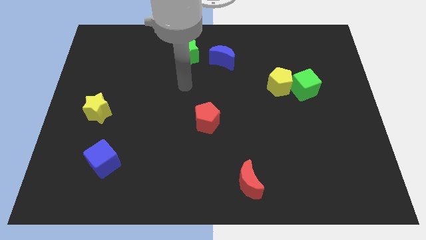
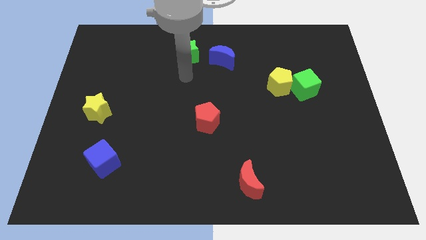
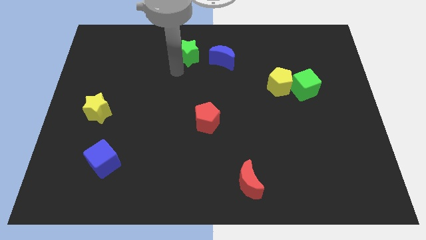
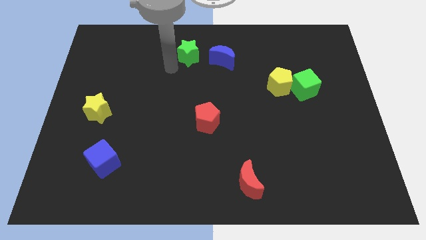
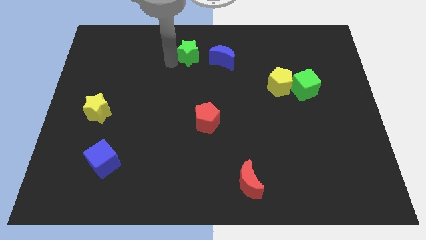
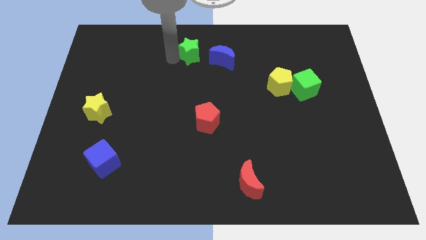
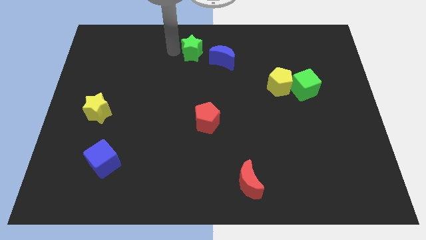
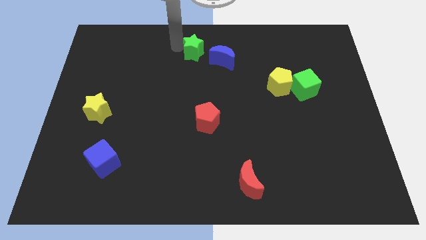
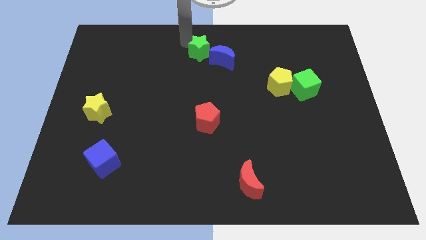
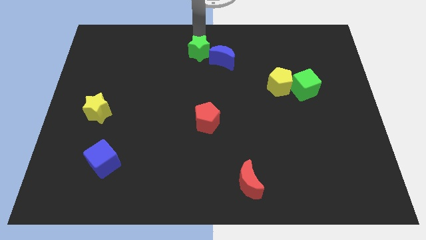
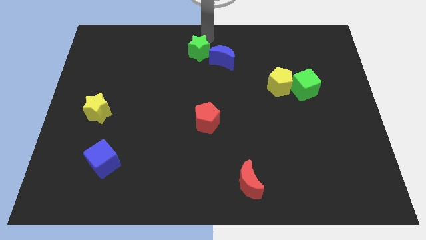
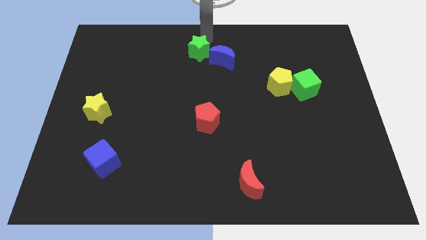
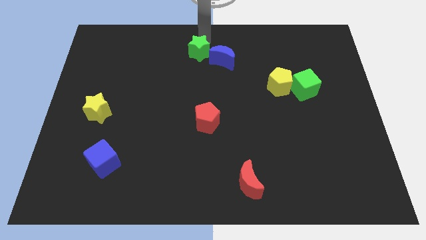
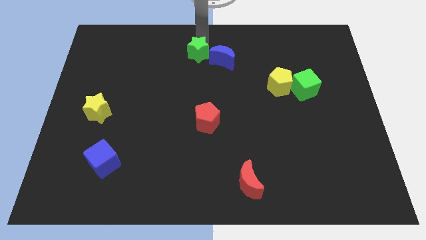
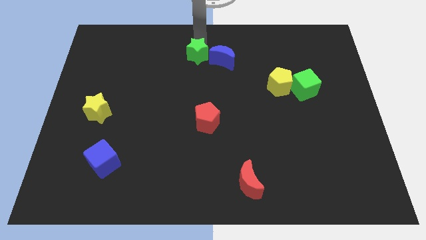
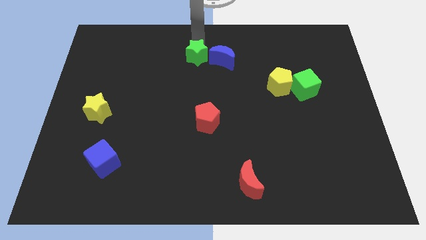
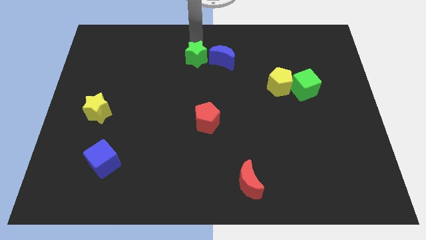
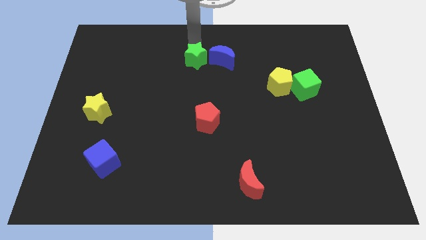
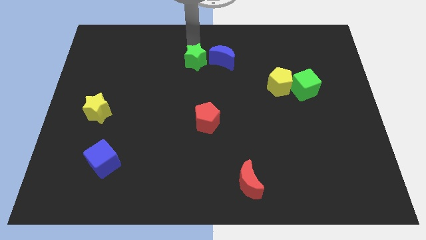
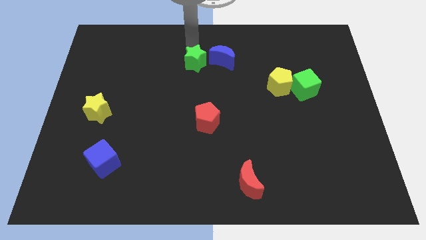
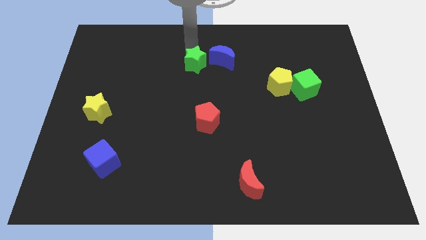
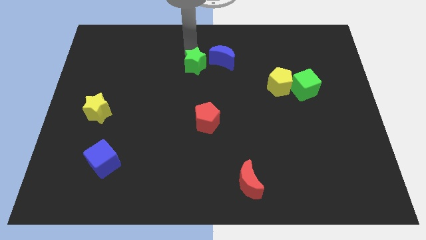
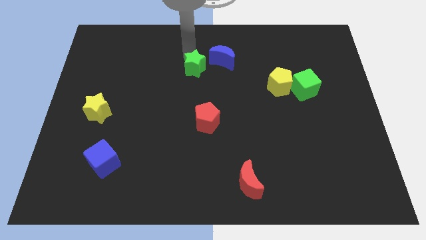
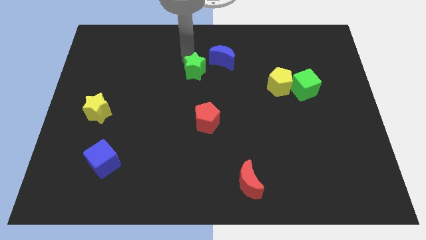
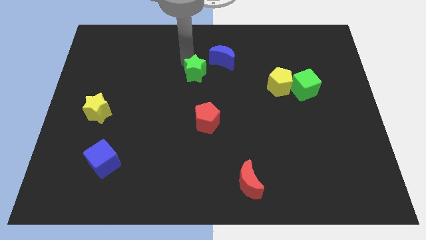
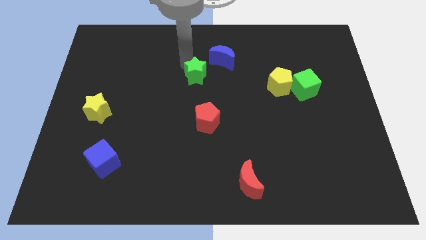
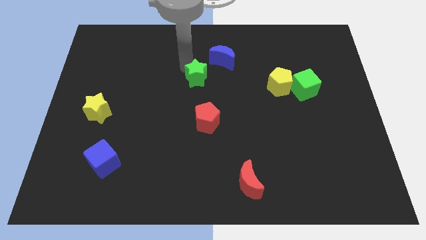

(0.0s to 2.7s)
slightly move the green star down

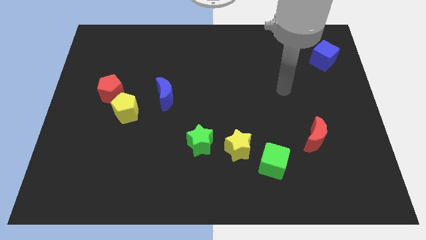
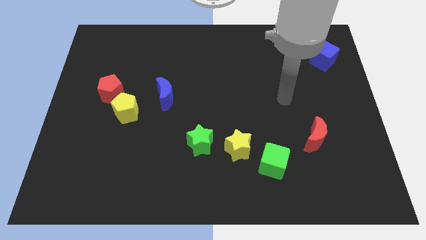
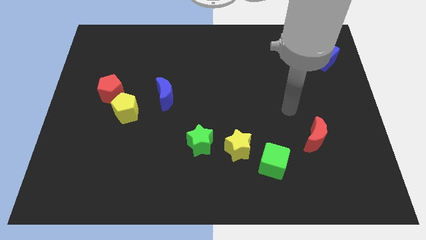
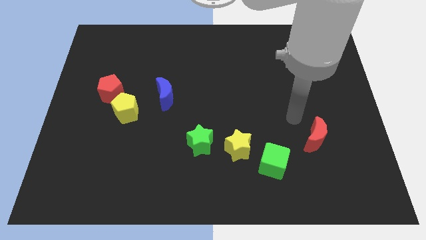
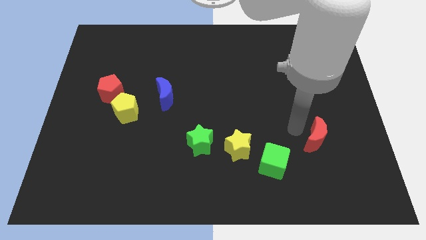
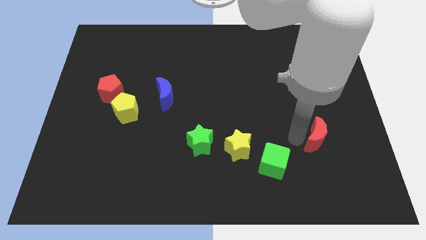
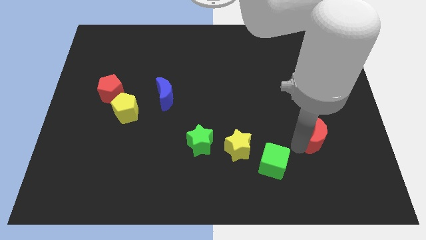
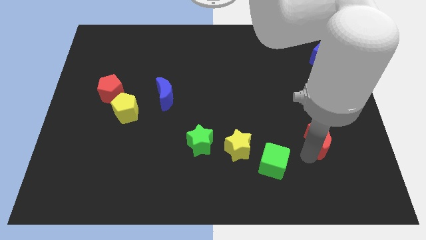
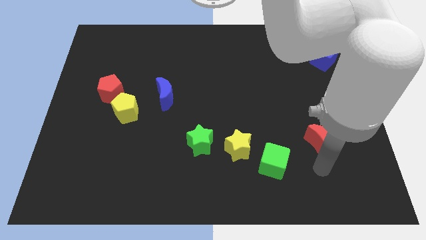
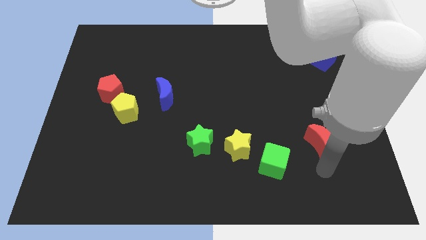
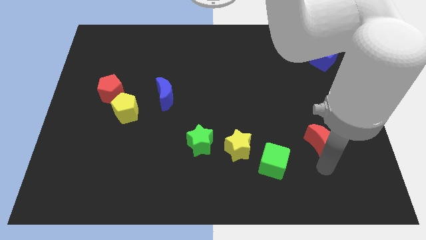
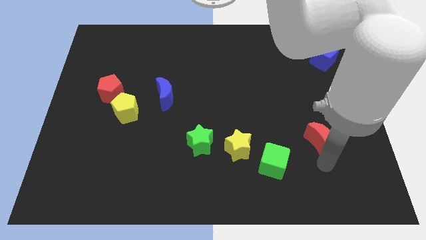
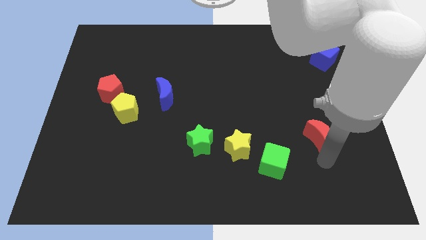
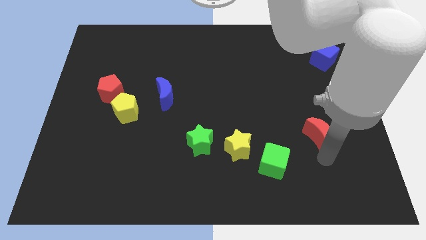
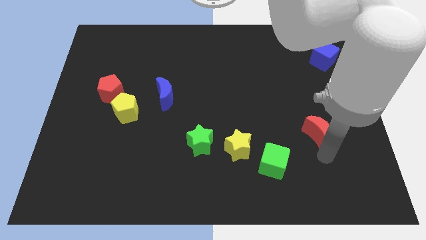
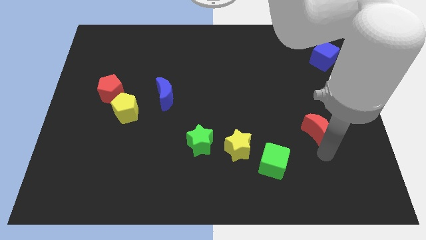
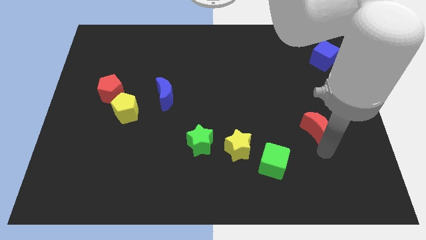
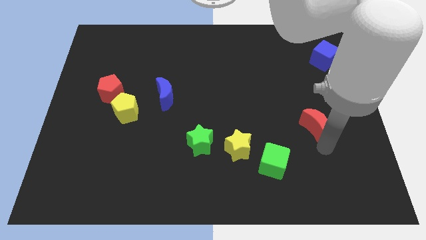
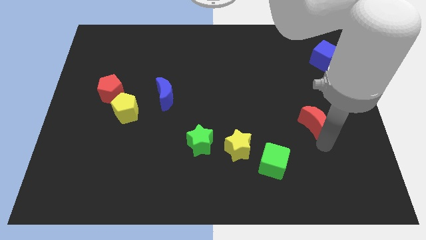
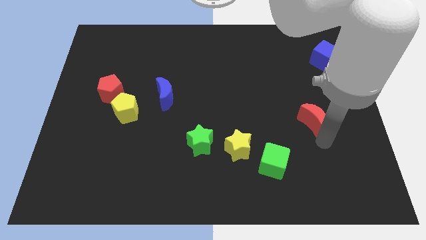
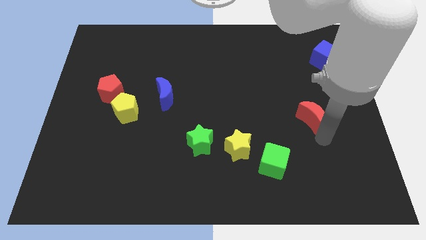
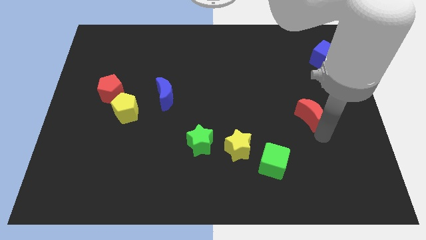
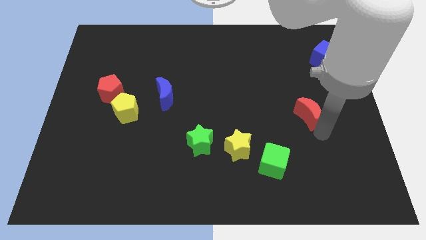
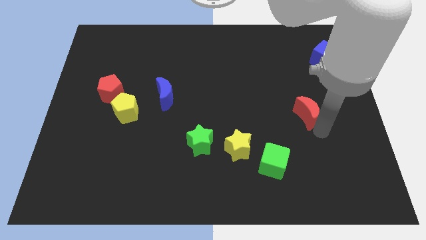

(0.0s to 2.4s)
push the red moon upwards somewhat

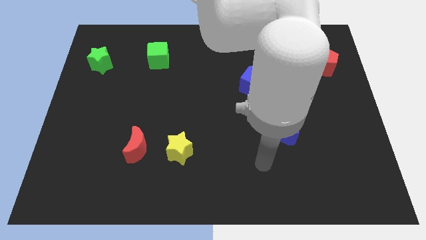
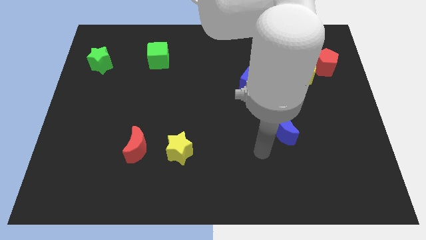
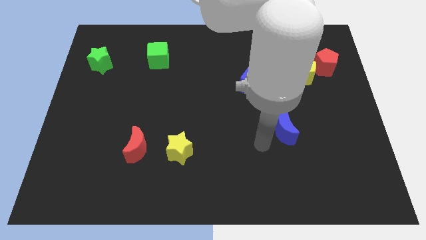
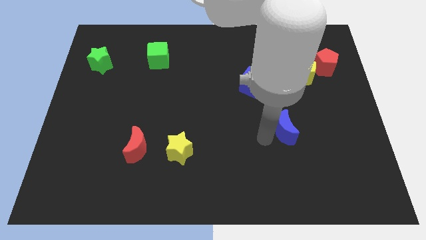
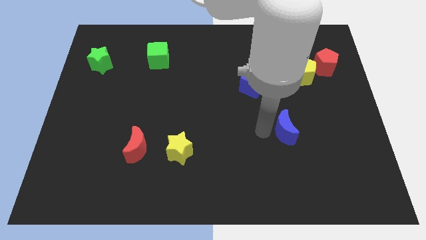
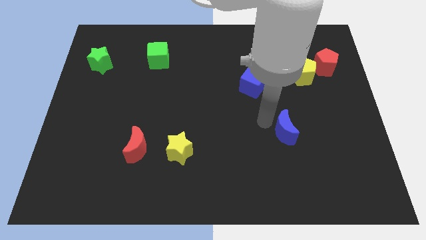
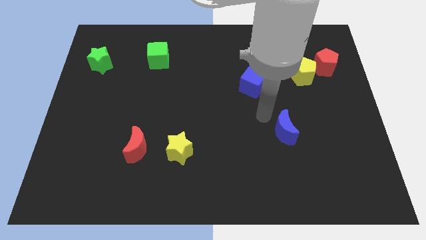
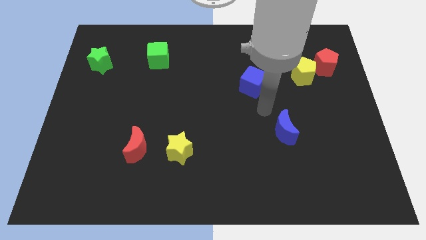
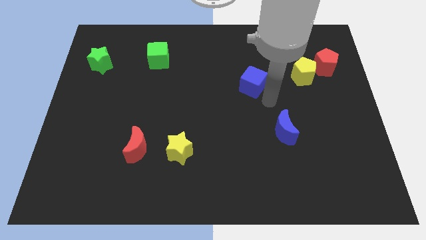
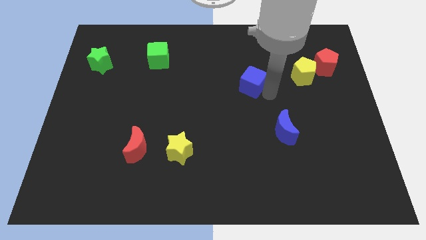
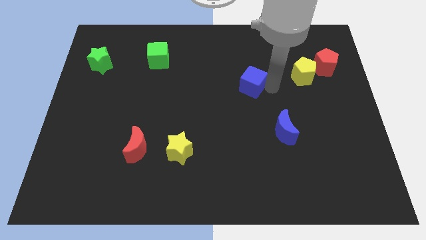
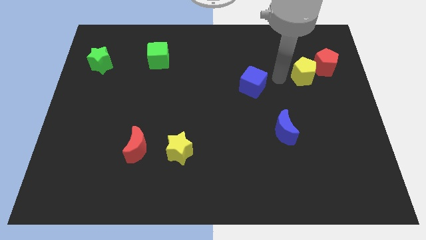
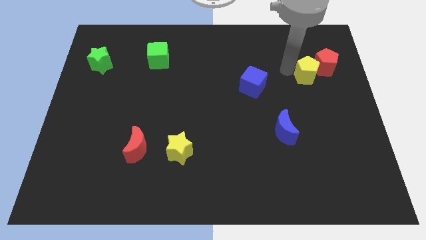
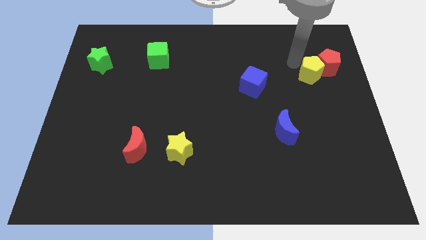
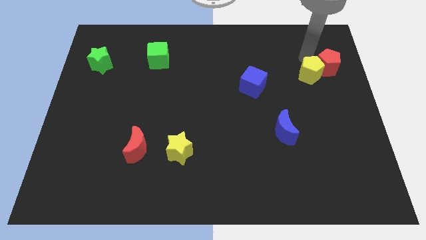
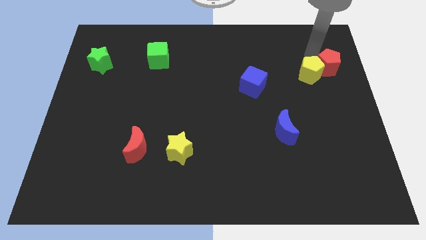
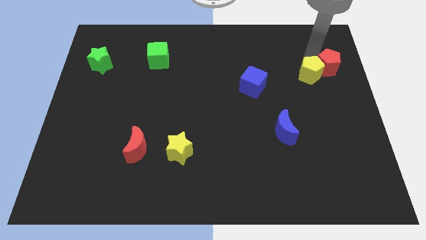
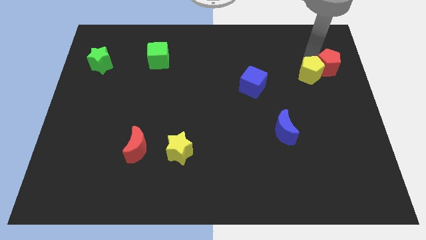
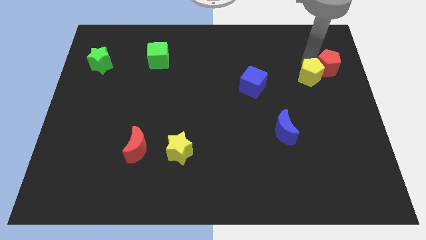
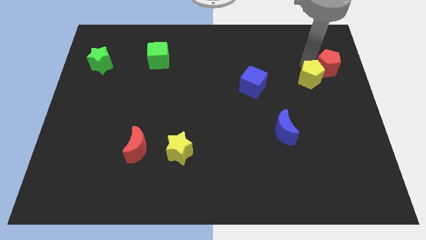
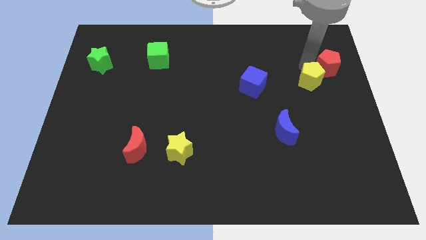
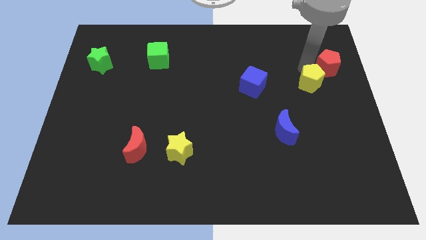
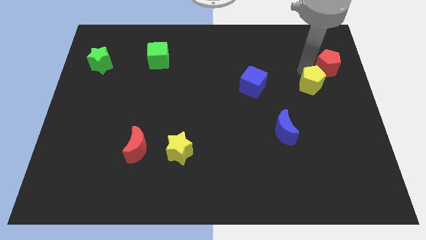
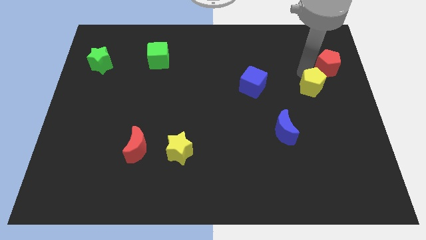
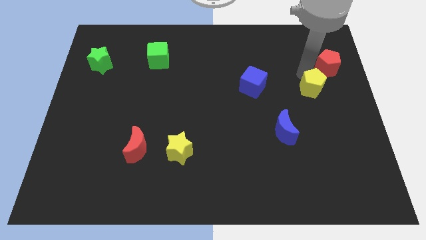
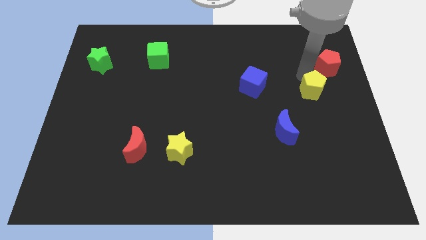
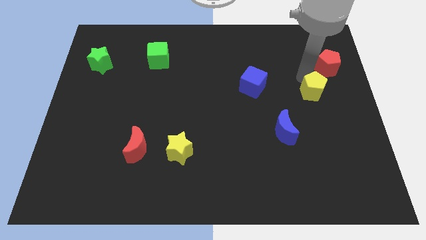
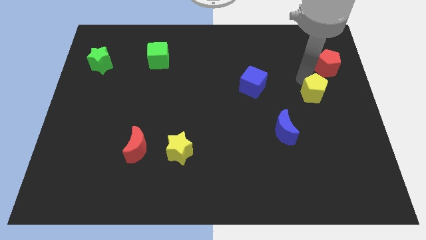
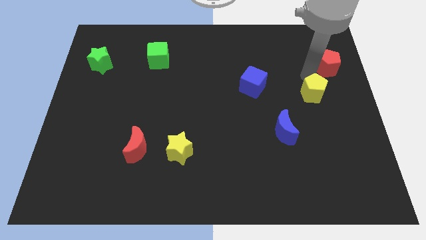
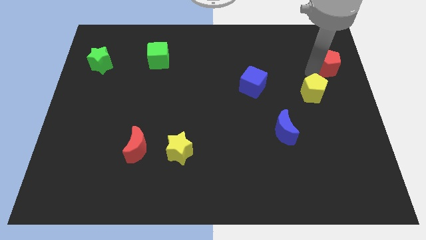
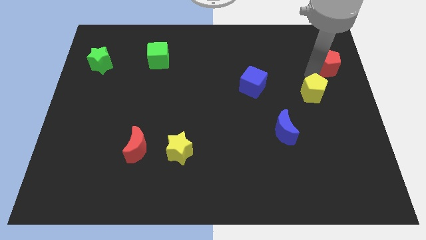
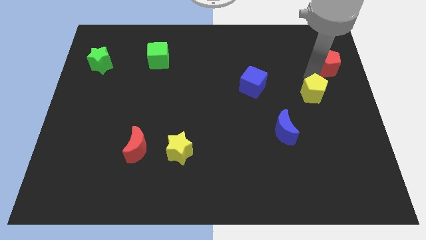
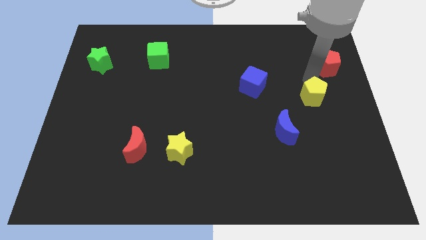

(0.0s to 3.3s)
slightly move the yellow pentagon down
